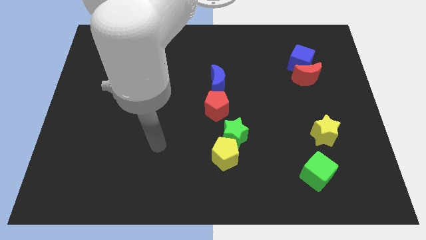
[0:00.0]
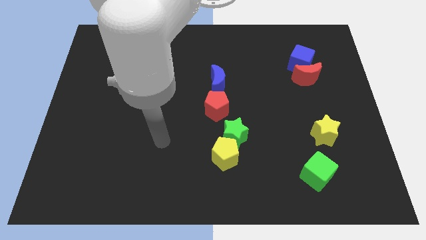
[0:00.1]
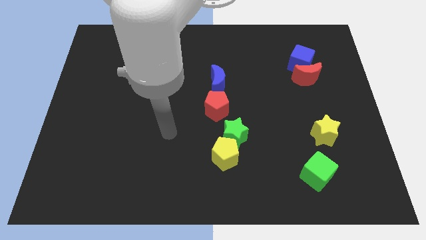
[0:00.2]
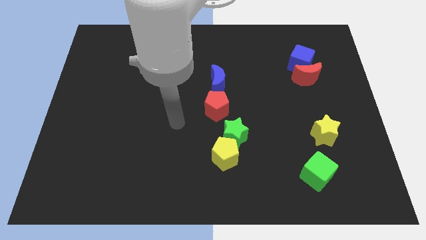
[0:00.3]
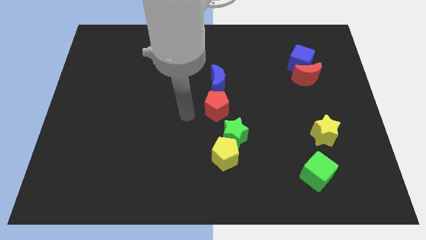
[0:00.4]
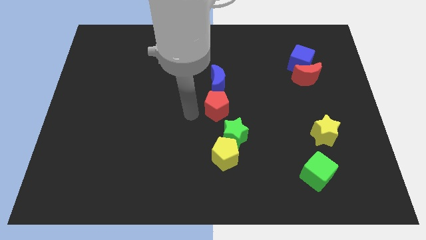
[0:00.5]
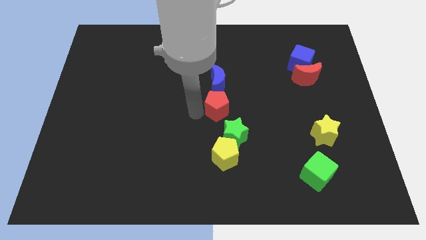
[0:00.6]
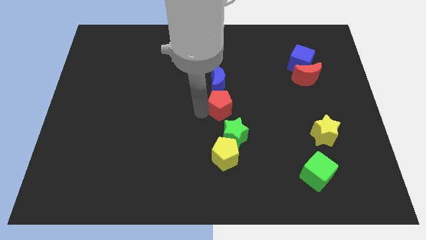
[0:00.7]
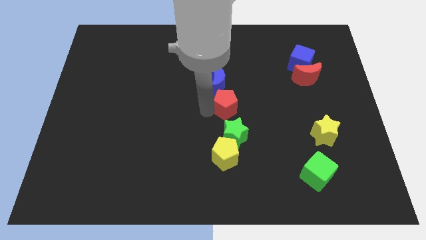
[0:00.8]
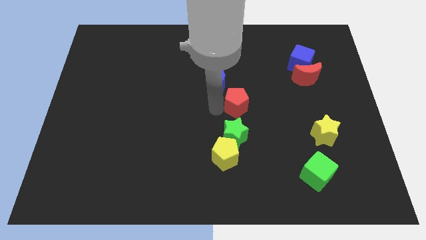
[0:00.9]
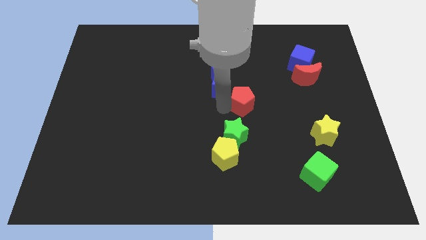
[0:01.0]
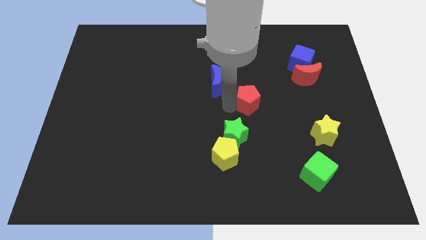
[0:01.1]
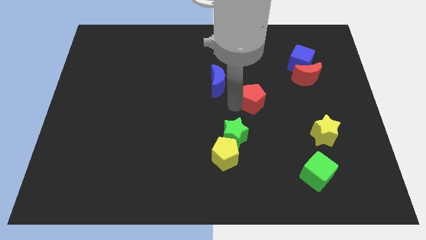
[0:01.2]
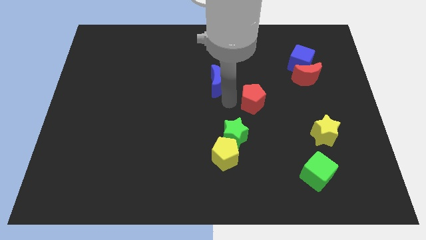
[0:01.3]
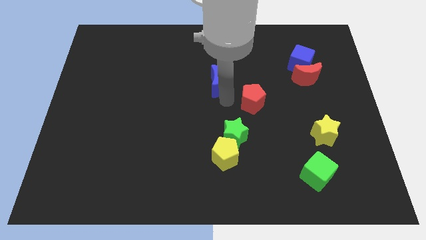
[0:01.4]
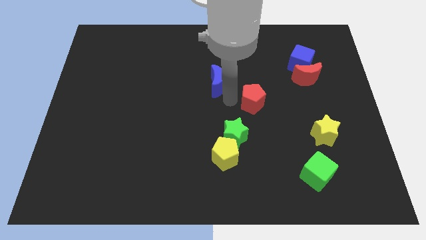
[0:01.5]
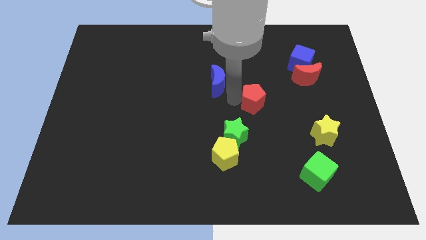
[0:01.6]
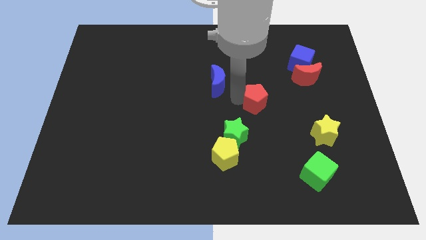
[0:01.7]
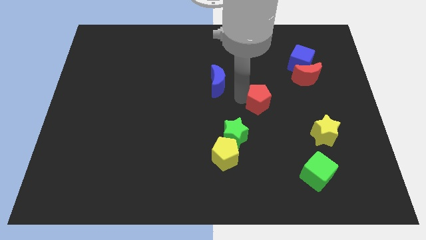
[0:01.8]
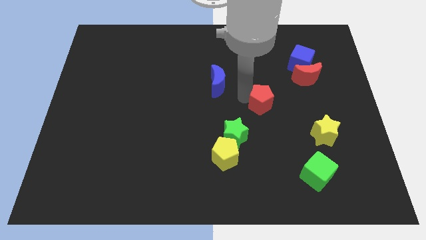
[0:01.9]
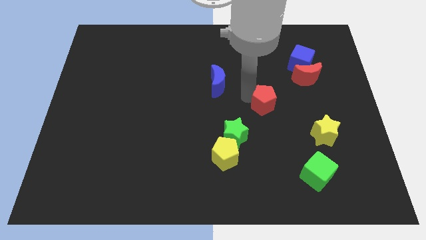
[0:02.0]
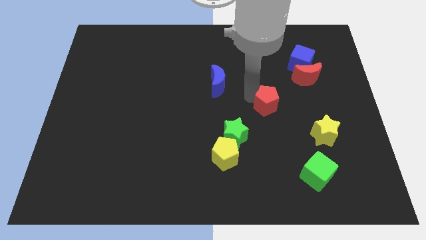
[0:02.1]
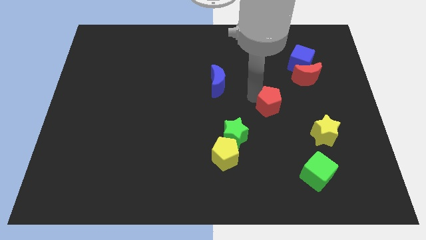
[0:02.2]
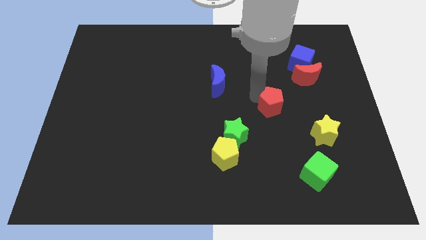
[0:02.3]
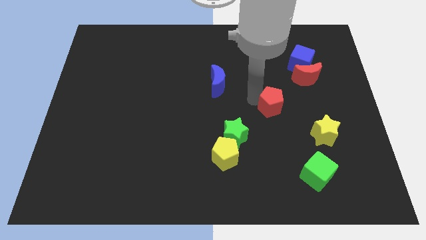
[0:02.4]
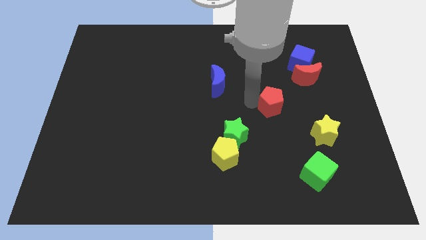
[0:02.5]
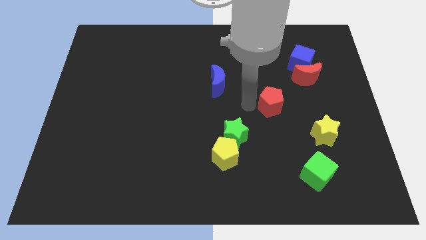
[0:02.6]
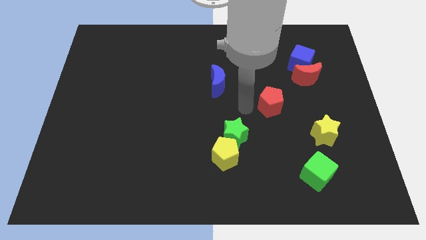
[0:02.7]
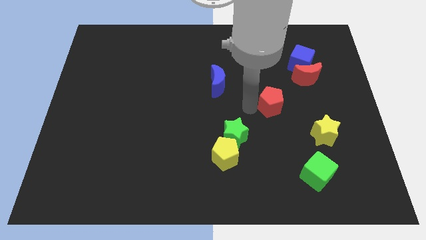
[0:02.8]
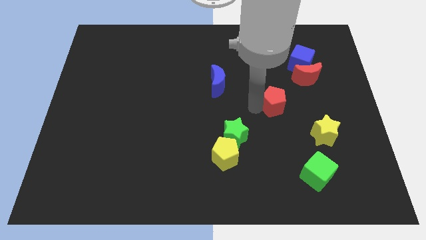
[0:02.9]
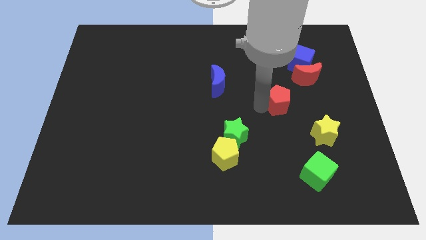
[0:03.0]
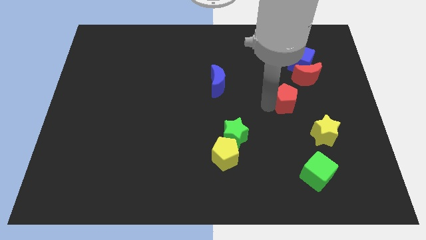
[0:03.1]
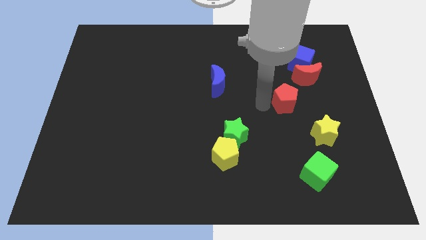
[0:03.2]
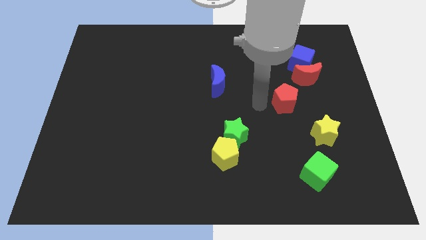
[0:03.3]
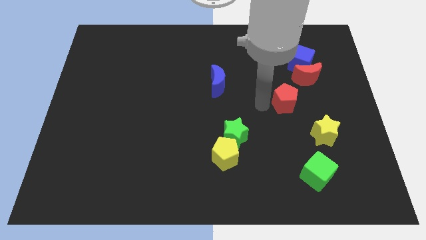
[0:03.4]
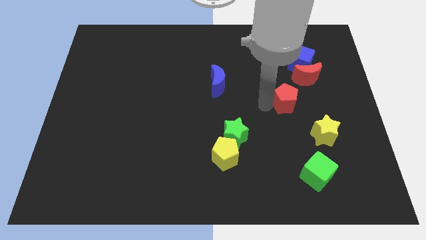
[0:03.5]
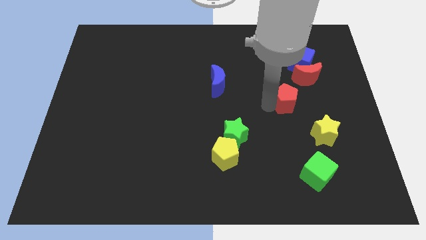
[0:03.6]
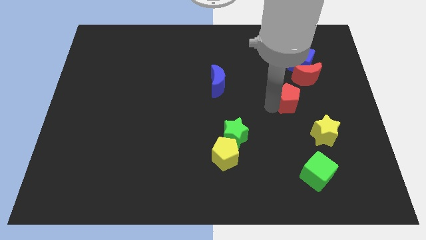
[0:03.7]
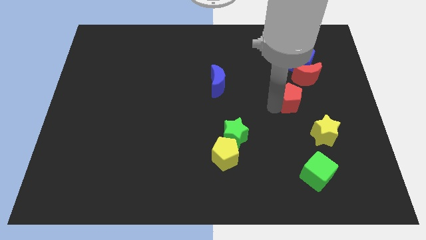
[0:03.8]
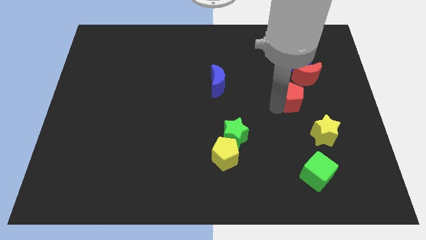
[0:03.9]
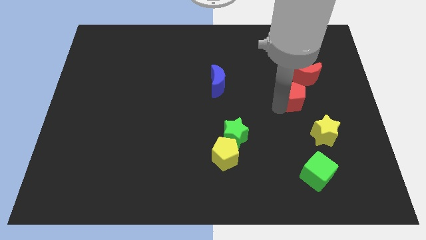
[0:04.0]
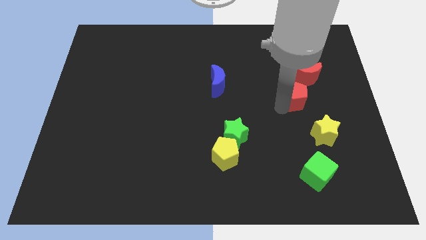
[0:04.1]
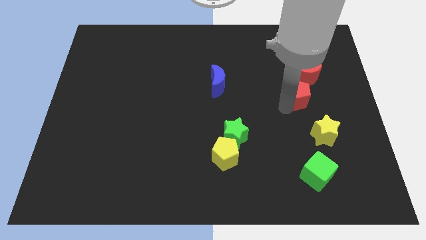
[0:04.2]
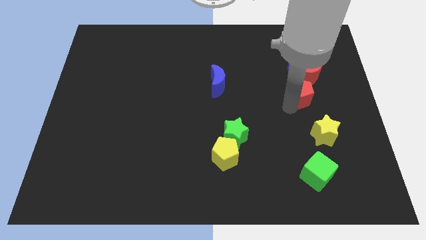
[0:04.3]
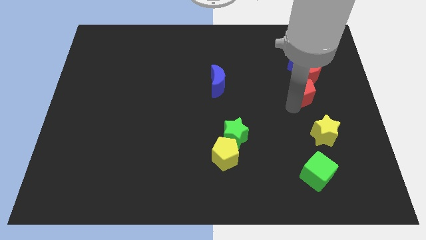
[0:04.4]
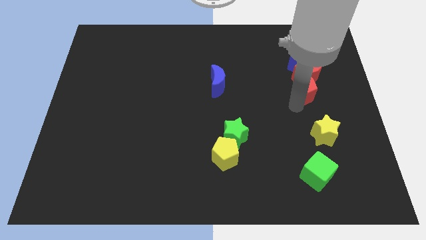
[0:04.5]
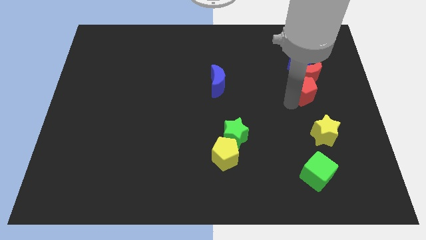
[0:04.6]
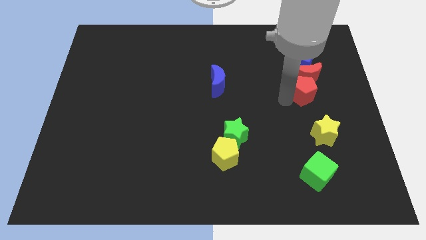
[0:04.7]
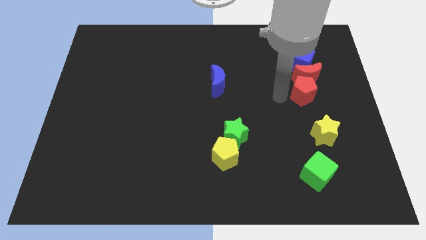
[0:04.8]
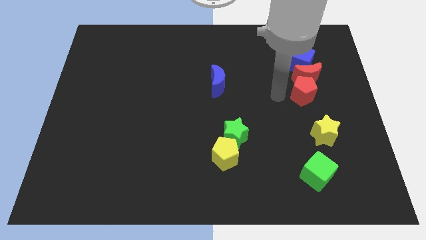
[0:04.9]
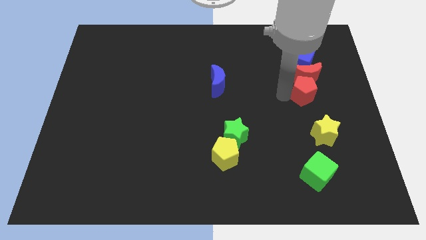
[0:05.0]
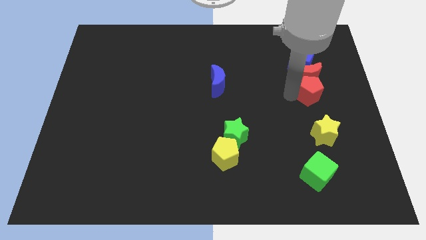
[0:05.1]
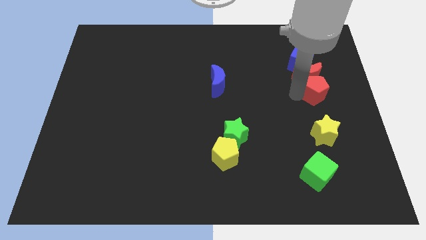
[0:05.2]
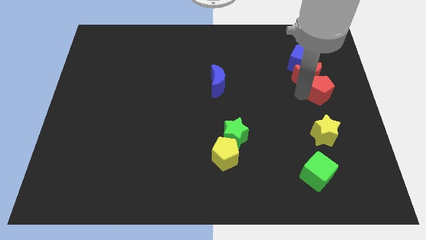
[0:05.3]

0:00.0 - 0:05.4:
push the red pentagon to the bottom right side of the blue cube

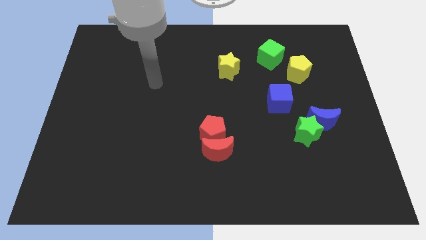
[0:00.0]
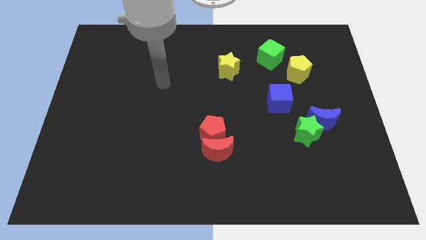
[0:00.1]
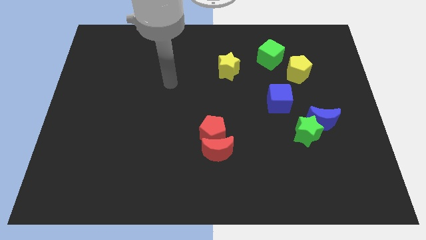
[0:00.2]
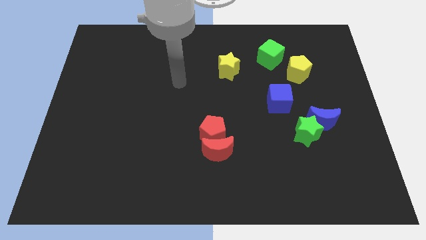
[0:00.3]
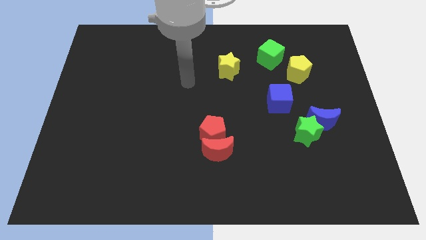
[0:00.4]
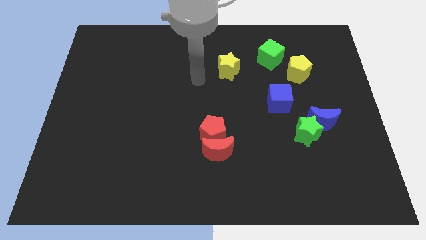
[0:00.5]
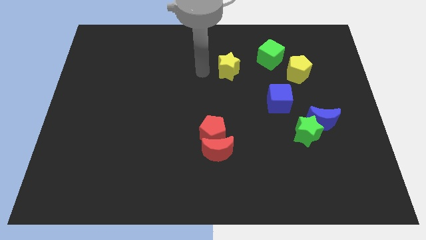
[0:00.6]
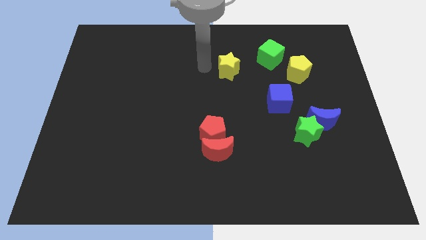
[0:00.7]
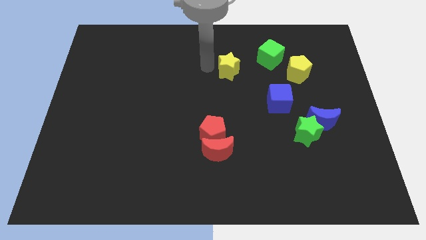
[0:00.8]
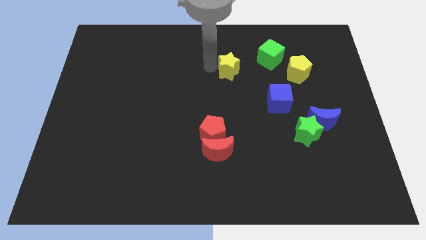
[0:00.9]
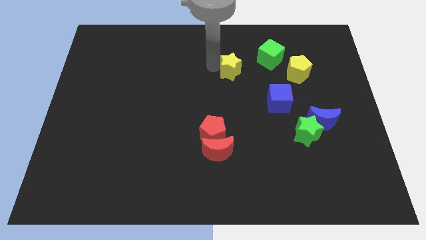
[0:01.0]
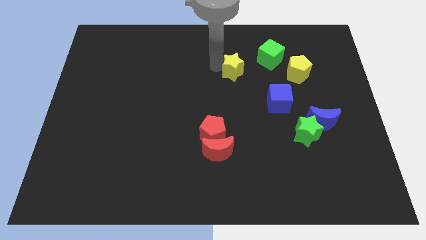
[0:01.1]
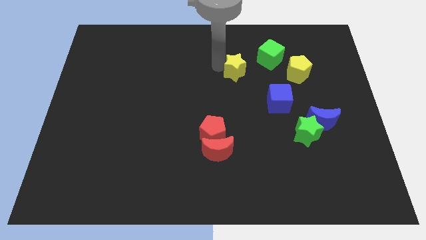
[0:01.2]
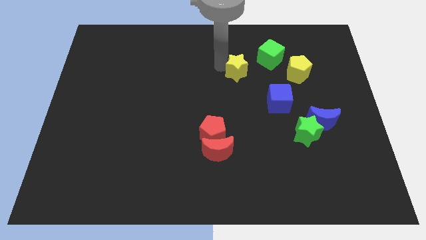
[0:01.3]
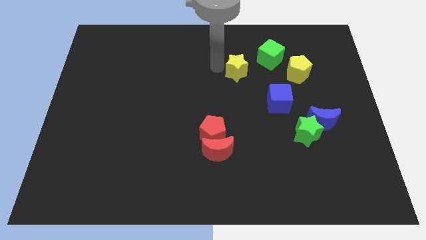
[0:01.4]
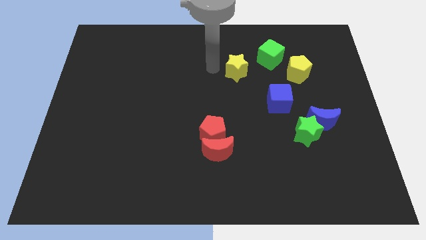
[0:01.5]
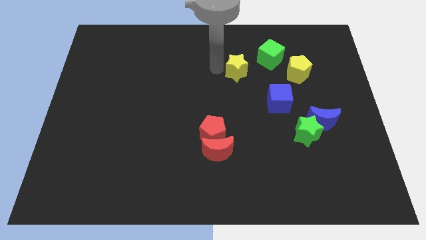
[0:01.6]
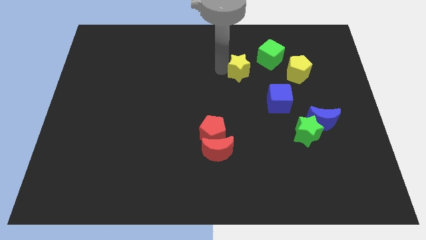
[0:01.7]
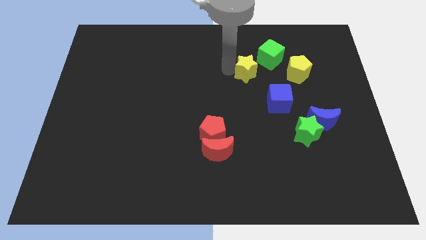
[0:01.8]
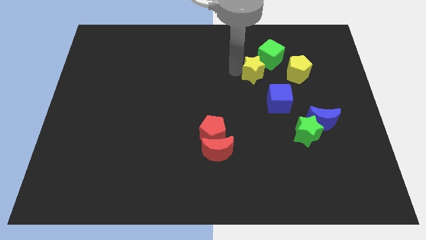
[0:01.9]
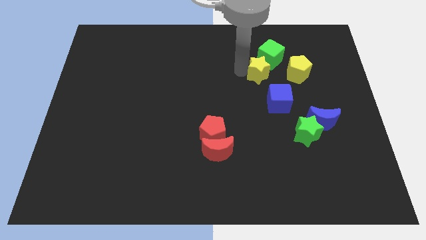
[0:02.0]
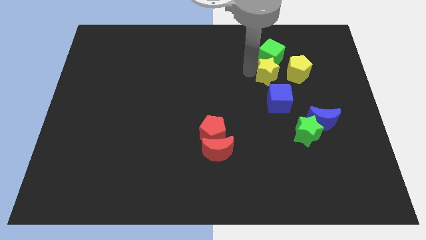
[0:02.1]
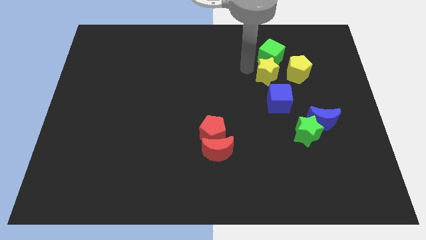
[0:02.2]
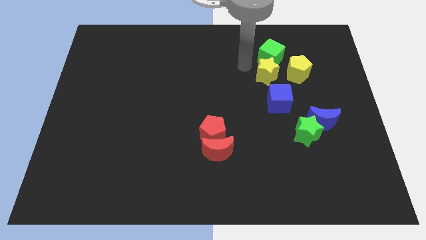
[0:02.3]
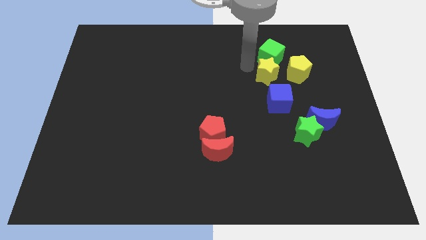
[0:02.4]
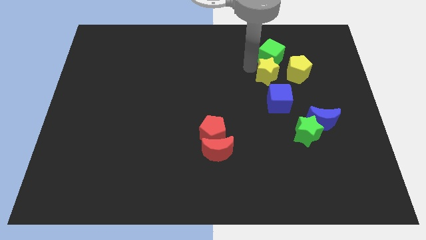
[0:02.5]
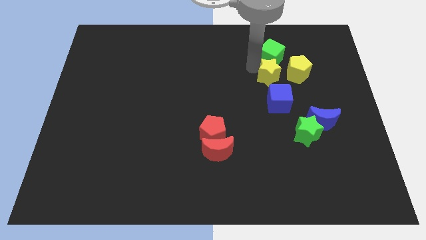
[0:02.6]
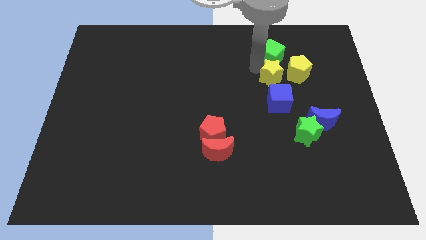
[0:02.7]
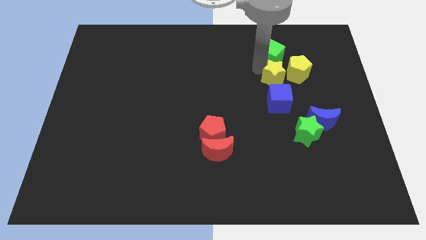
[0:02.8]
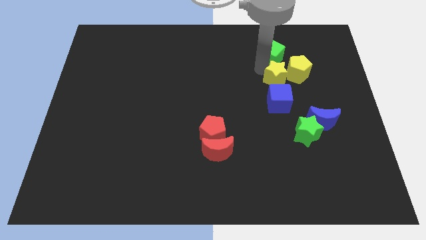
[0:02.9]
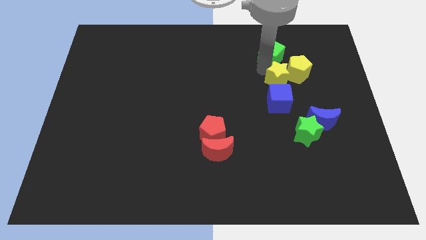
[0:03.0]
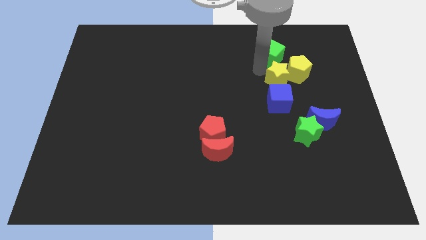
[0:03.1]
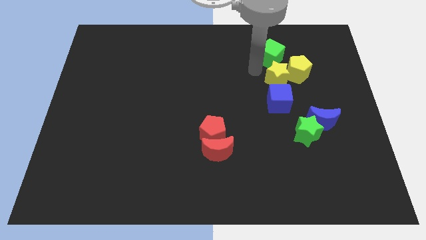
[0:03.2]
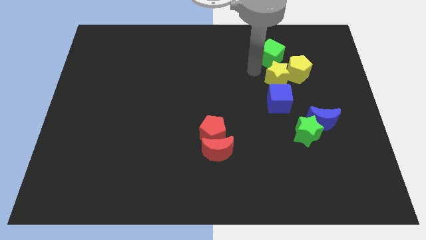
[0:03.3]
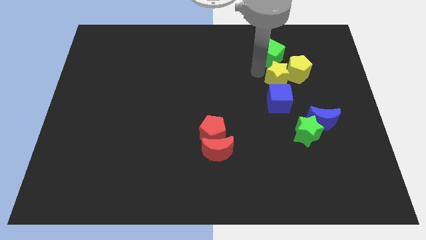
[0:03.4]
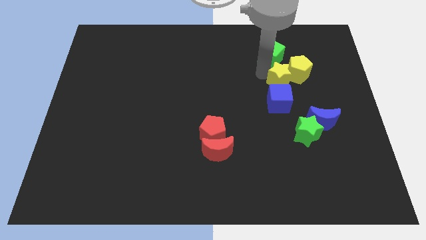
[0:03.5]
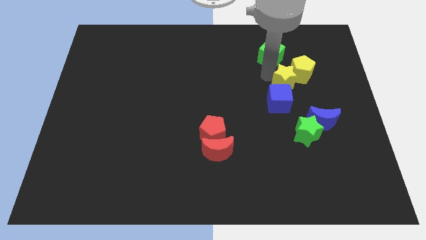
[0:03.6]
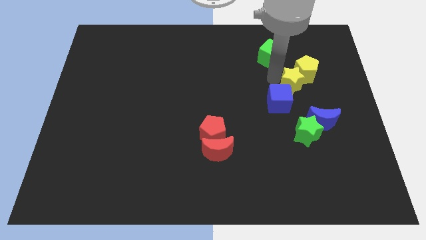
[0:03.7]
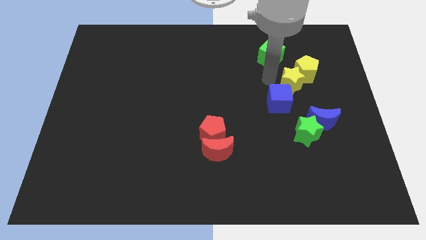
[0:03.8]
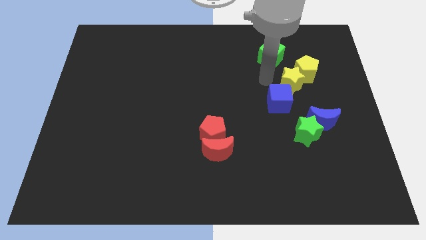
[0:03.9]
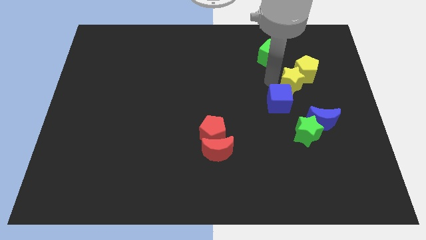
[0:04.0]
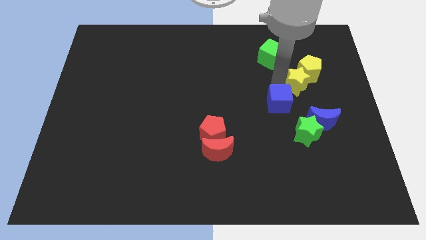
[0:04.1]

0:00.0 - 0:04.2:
move the yellow star to the top side of the blue moon
